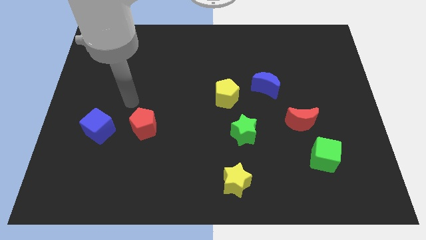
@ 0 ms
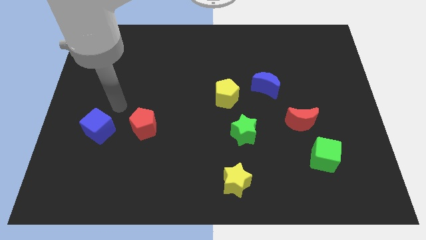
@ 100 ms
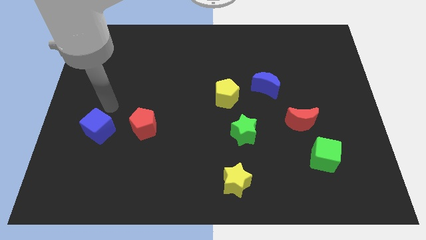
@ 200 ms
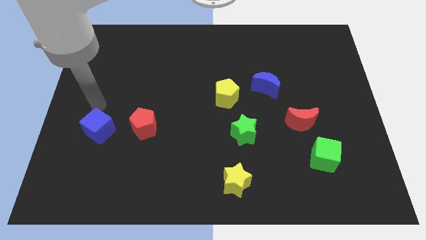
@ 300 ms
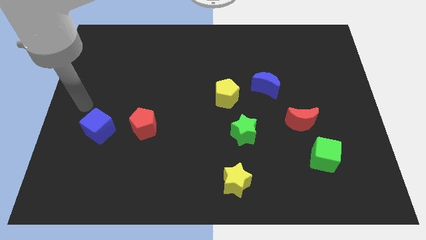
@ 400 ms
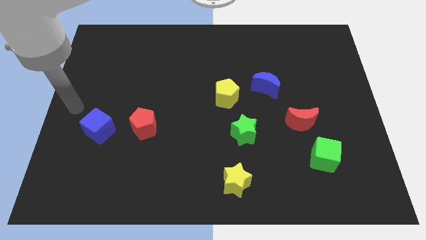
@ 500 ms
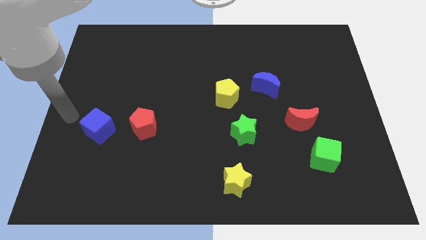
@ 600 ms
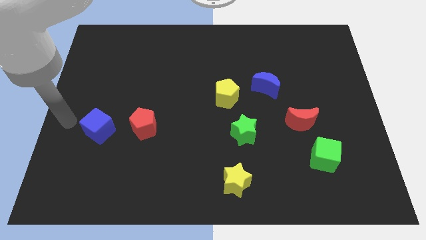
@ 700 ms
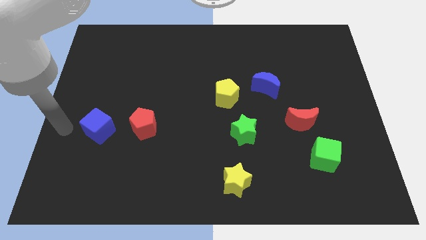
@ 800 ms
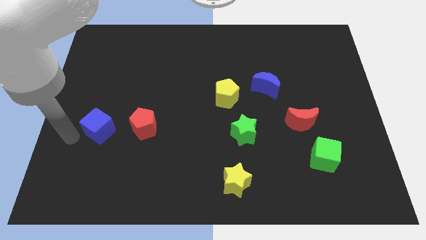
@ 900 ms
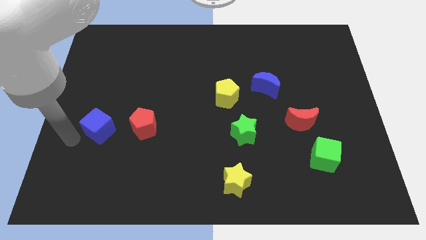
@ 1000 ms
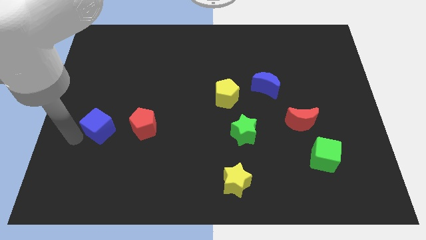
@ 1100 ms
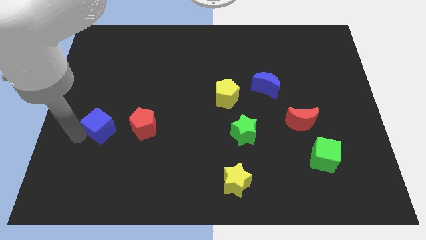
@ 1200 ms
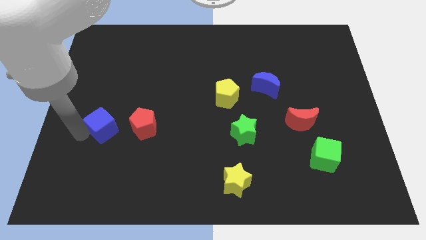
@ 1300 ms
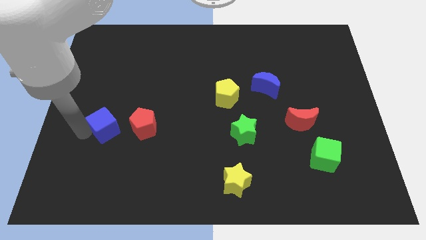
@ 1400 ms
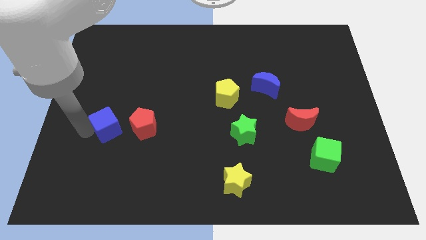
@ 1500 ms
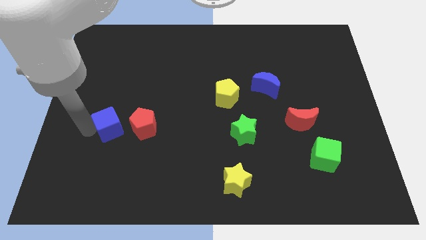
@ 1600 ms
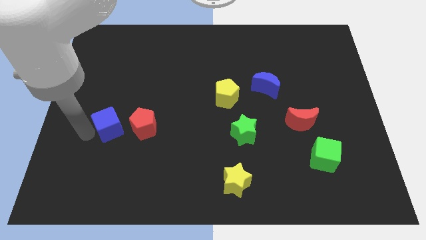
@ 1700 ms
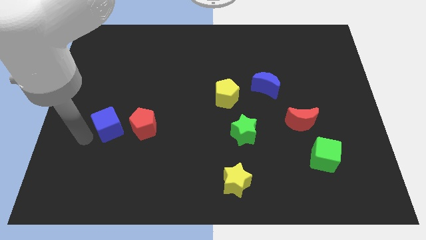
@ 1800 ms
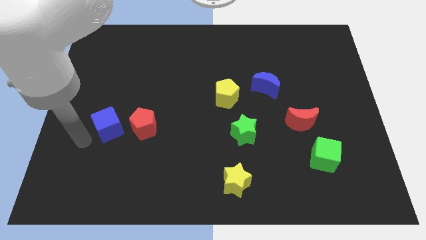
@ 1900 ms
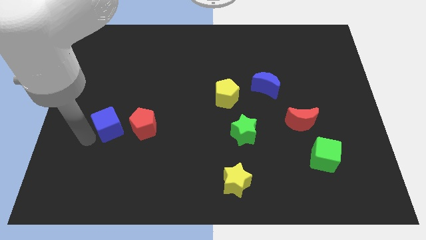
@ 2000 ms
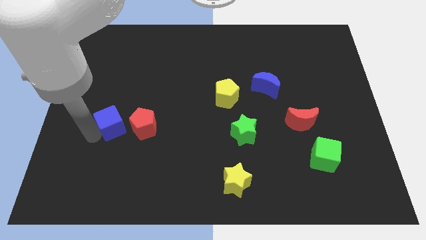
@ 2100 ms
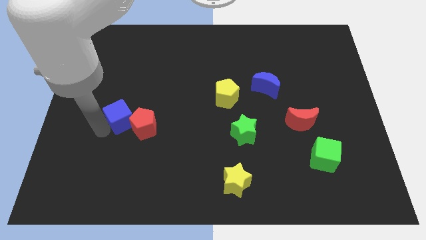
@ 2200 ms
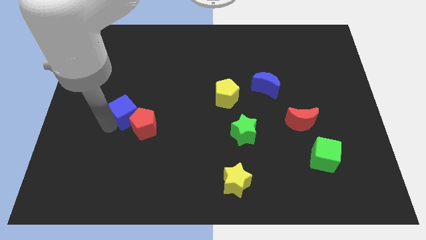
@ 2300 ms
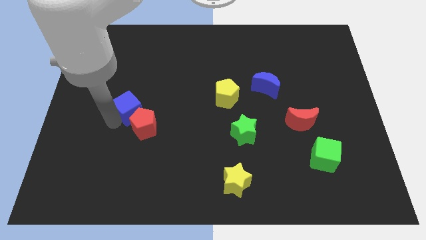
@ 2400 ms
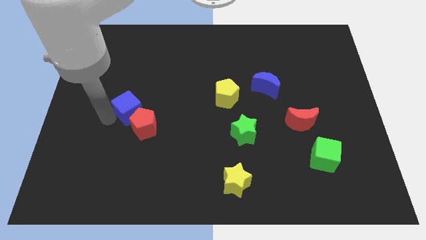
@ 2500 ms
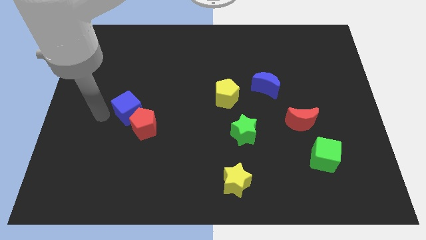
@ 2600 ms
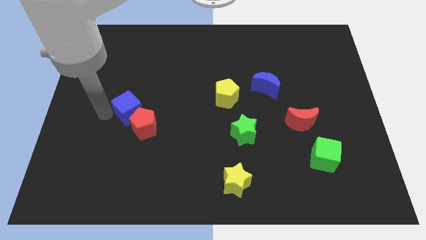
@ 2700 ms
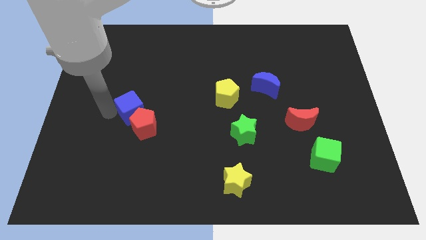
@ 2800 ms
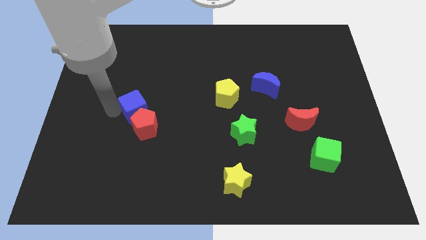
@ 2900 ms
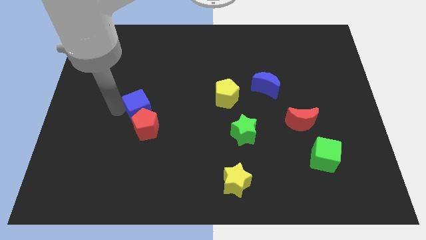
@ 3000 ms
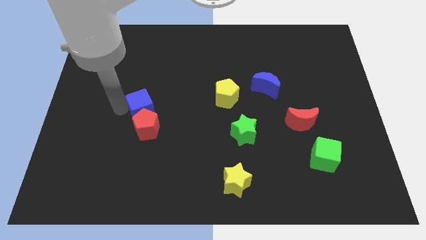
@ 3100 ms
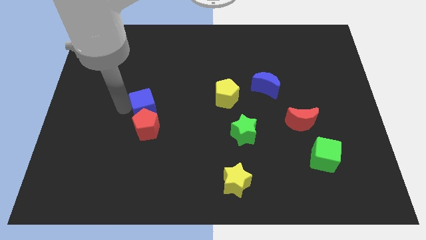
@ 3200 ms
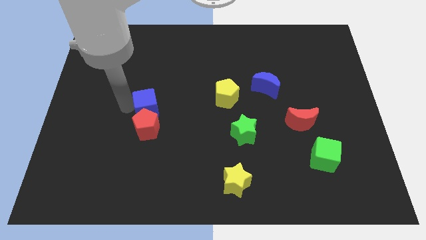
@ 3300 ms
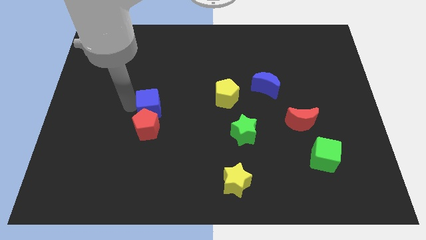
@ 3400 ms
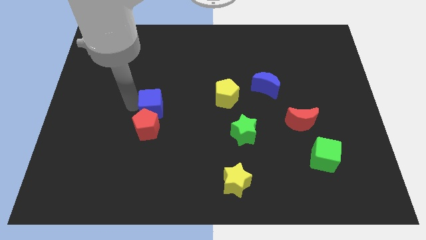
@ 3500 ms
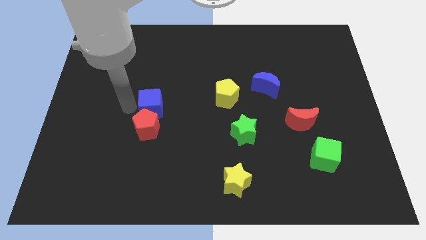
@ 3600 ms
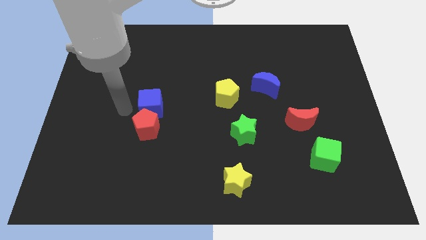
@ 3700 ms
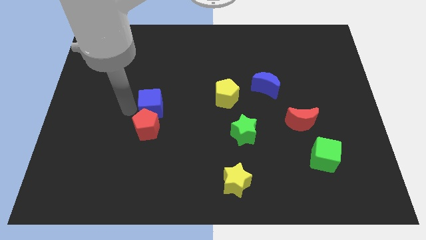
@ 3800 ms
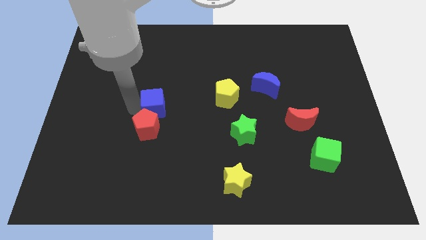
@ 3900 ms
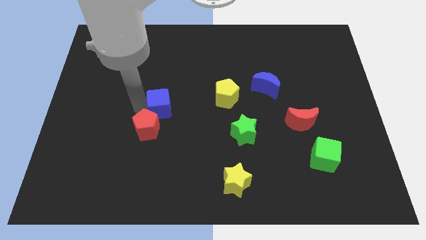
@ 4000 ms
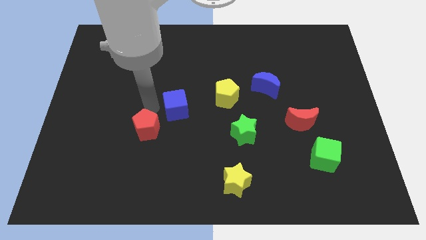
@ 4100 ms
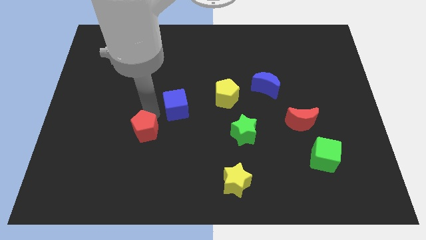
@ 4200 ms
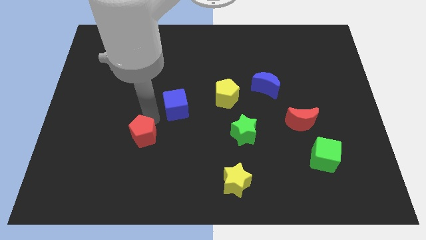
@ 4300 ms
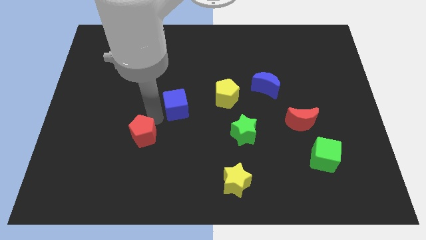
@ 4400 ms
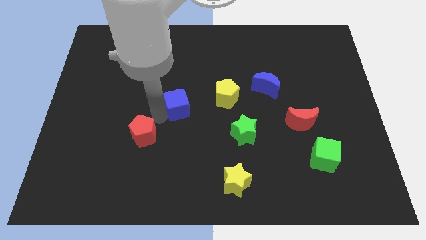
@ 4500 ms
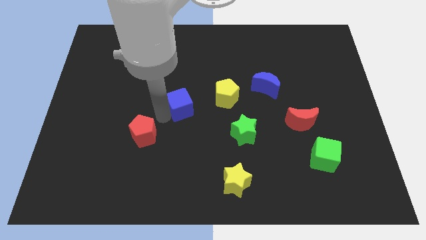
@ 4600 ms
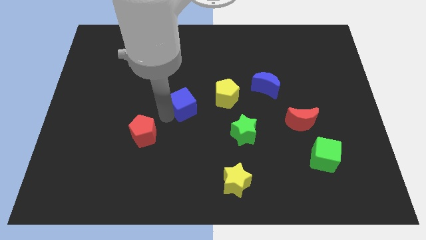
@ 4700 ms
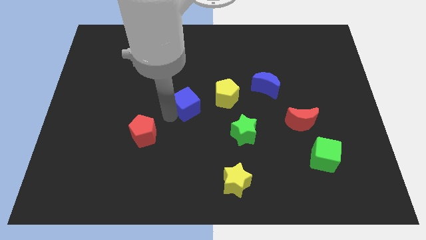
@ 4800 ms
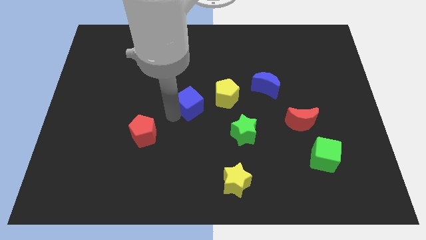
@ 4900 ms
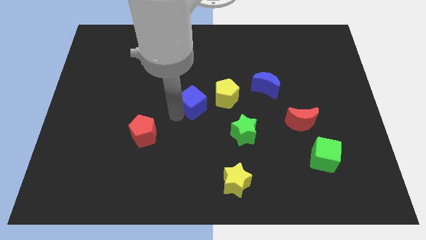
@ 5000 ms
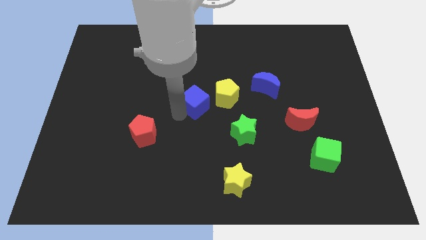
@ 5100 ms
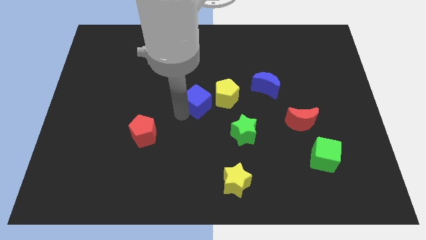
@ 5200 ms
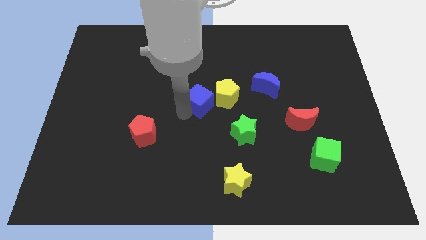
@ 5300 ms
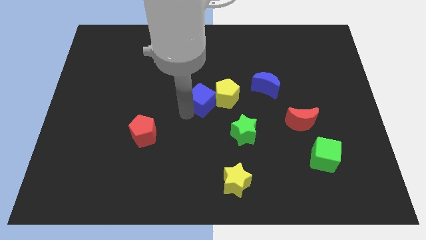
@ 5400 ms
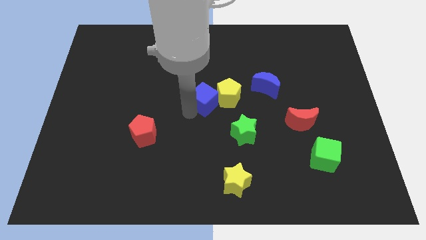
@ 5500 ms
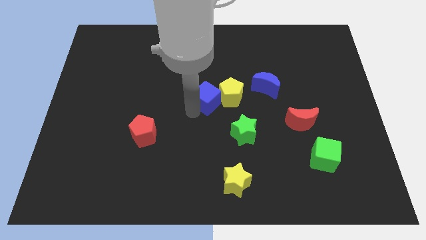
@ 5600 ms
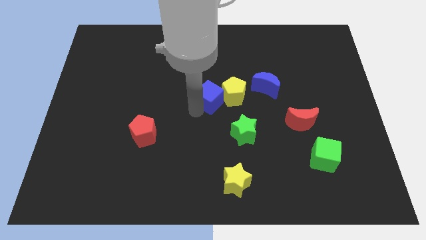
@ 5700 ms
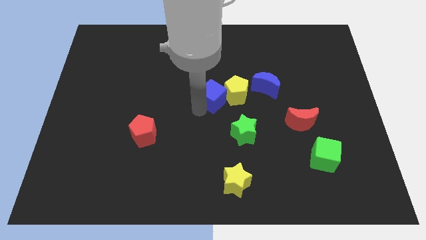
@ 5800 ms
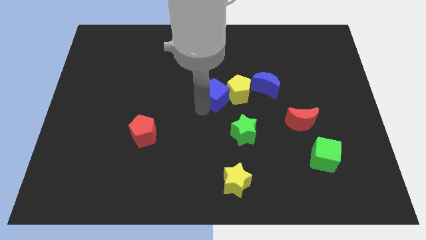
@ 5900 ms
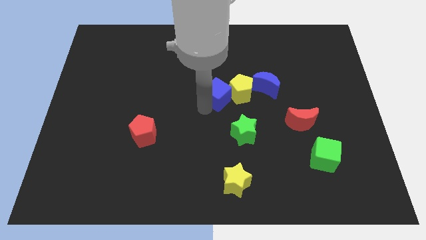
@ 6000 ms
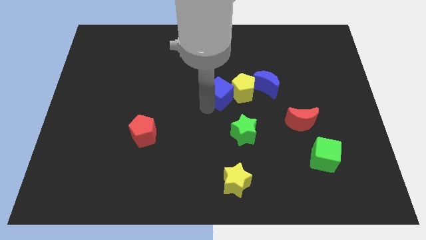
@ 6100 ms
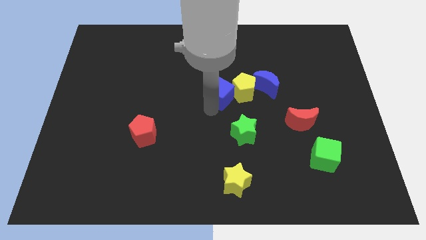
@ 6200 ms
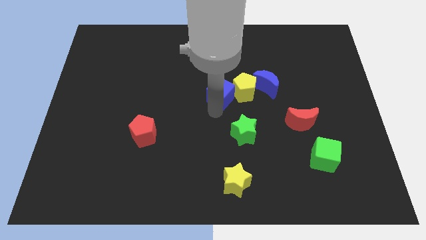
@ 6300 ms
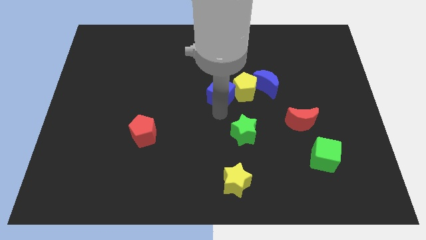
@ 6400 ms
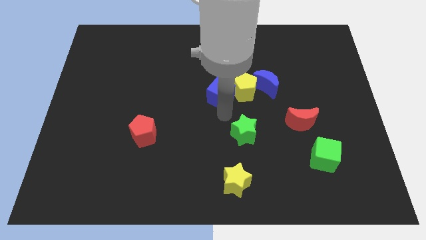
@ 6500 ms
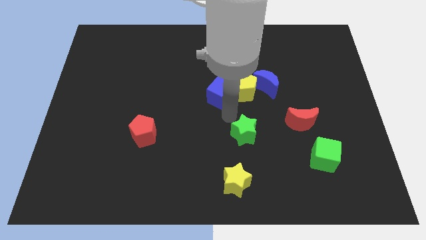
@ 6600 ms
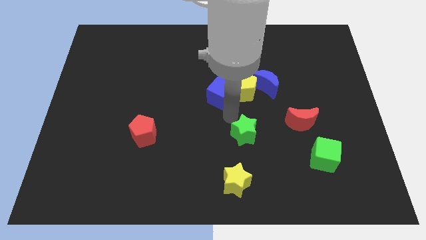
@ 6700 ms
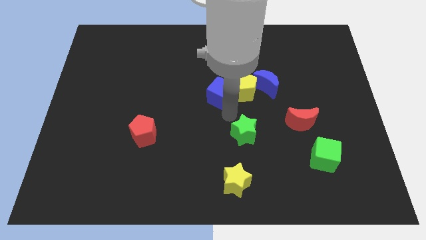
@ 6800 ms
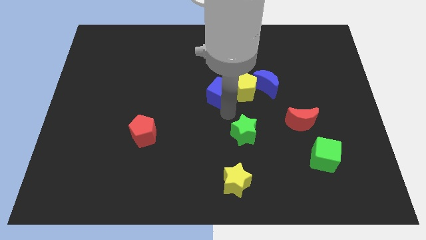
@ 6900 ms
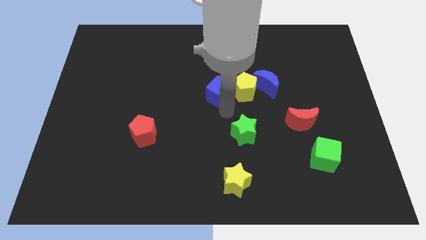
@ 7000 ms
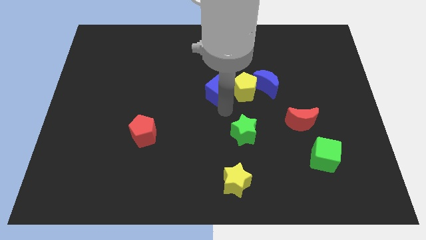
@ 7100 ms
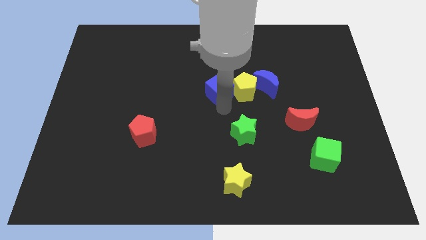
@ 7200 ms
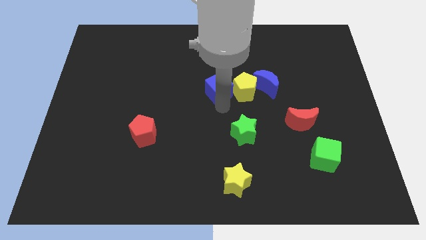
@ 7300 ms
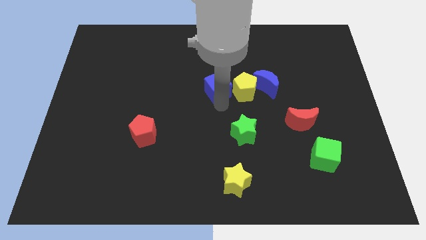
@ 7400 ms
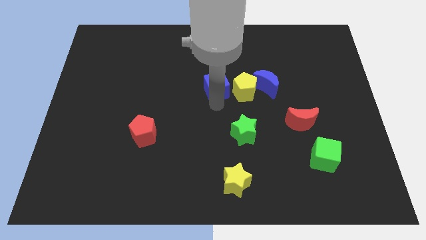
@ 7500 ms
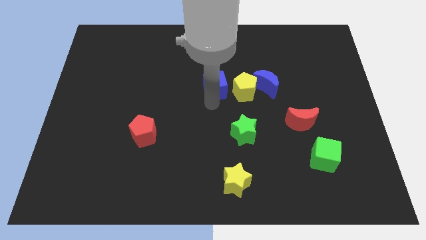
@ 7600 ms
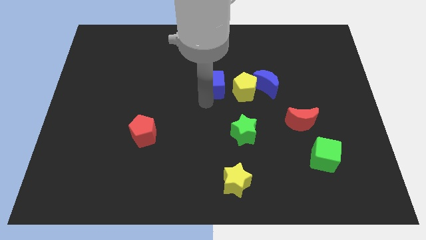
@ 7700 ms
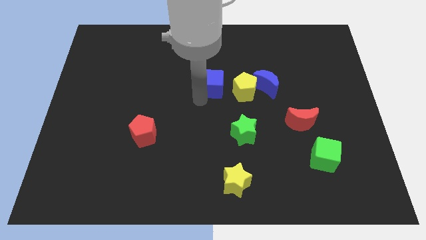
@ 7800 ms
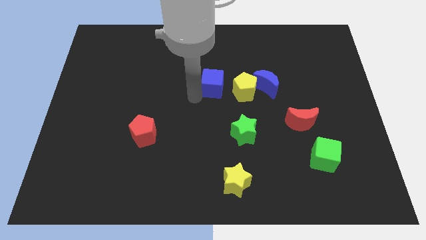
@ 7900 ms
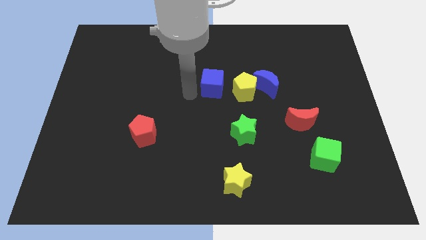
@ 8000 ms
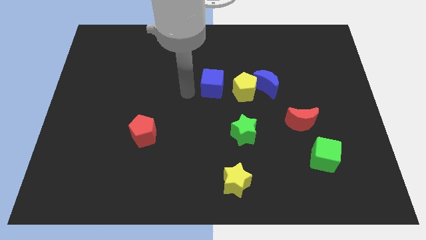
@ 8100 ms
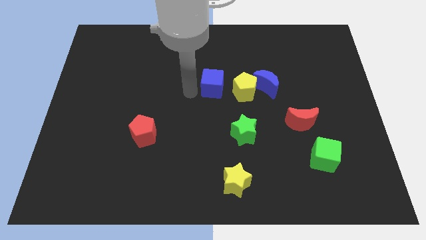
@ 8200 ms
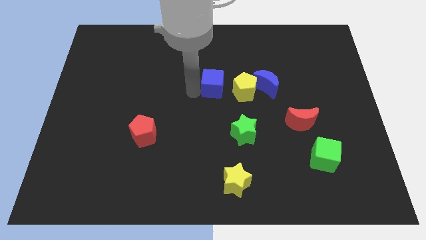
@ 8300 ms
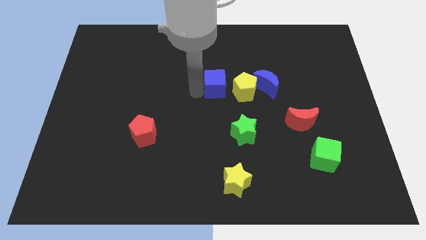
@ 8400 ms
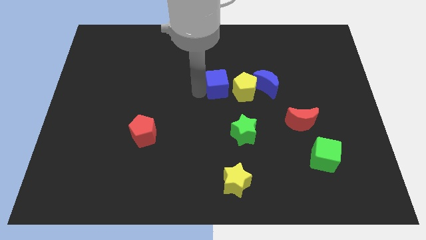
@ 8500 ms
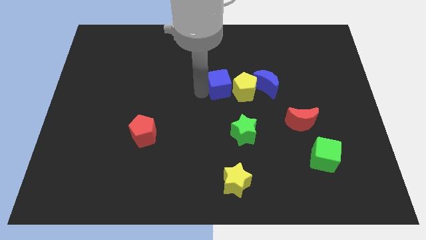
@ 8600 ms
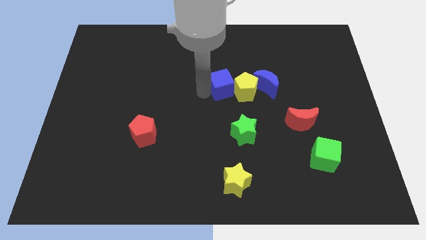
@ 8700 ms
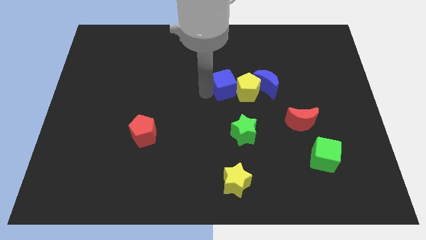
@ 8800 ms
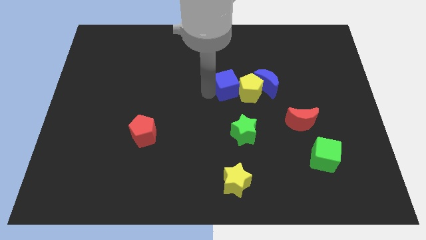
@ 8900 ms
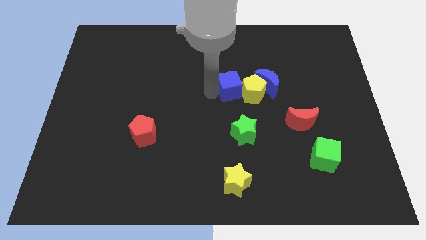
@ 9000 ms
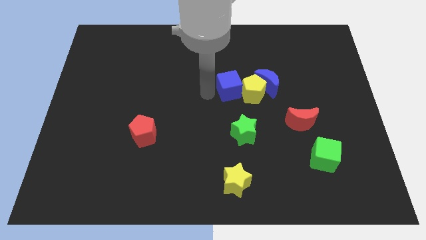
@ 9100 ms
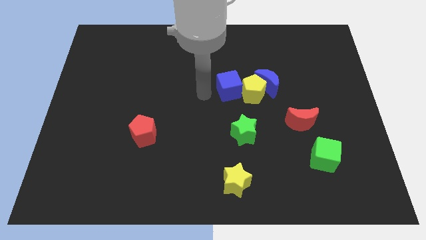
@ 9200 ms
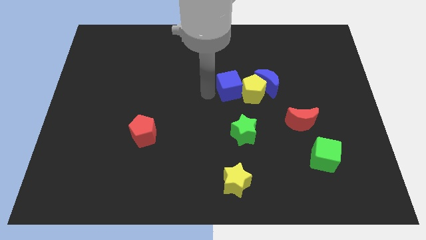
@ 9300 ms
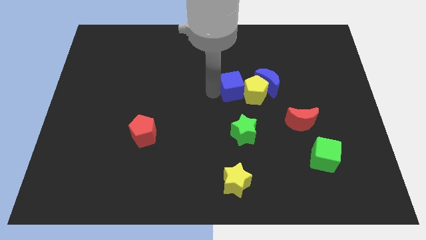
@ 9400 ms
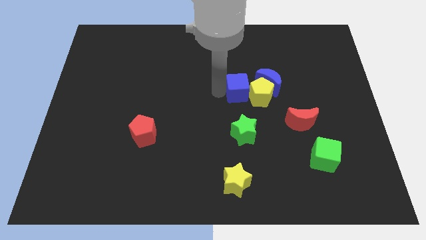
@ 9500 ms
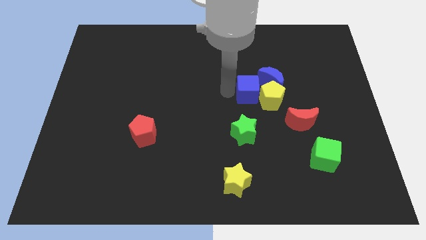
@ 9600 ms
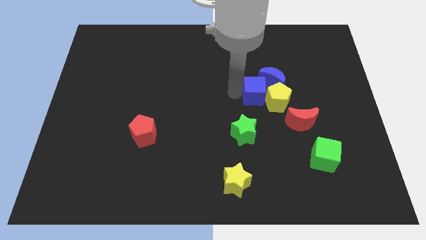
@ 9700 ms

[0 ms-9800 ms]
push the blue cube close to the blue moon
